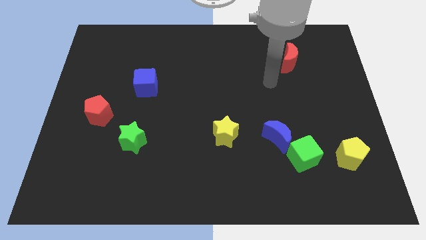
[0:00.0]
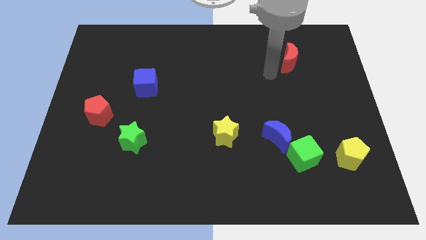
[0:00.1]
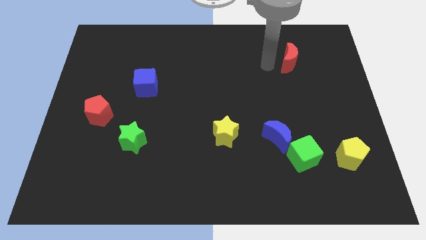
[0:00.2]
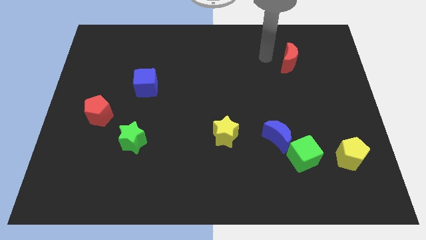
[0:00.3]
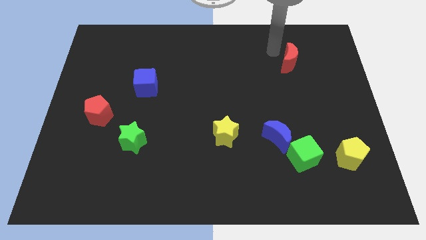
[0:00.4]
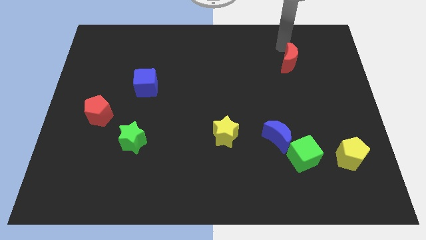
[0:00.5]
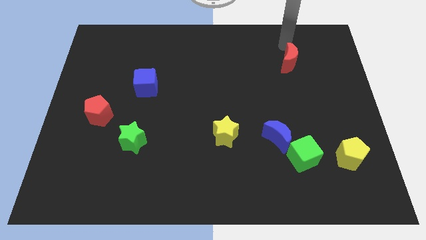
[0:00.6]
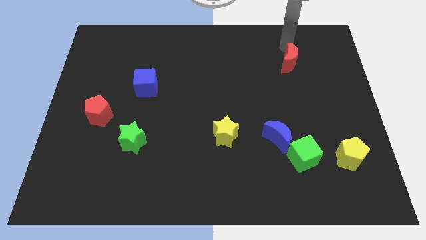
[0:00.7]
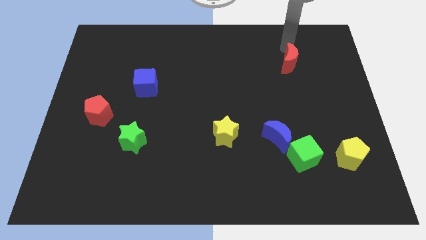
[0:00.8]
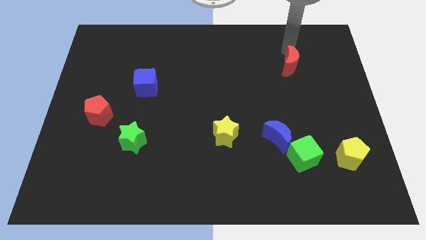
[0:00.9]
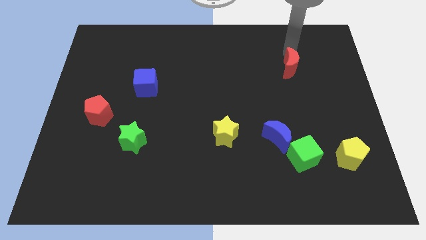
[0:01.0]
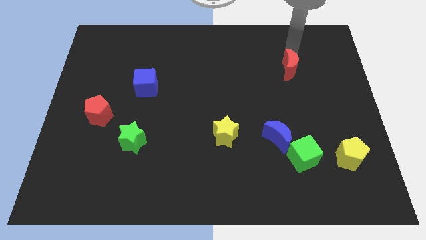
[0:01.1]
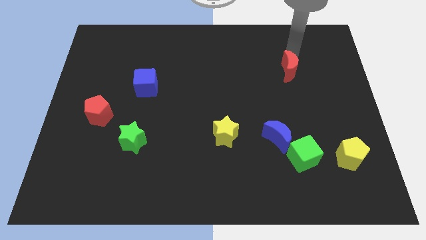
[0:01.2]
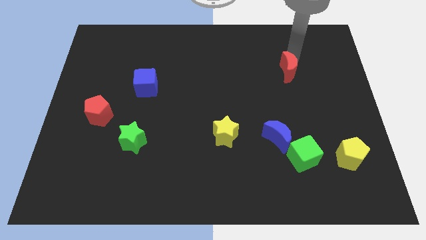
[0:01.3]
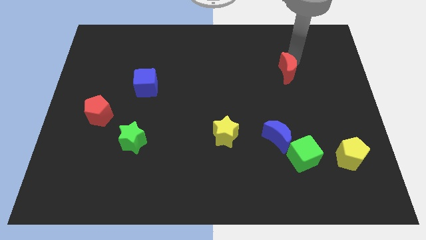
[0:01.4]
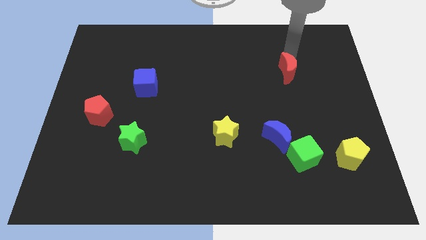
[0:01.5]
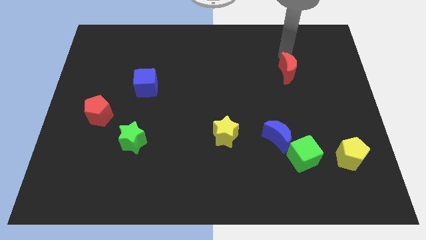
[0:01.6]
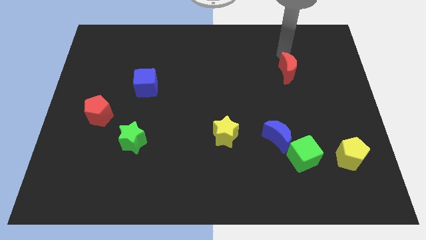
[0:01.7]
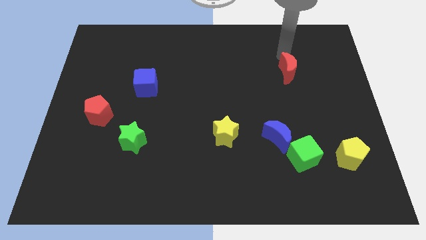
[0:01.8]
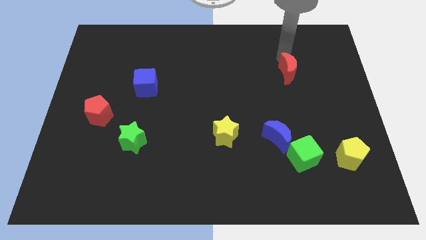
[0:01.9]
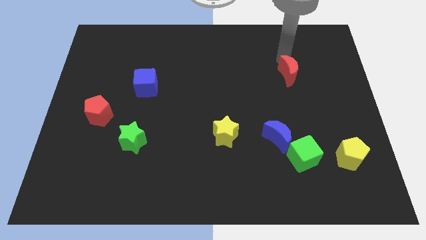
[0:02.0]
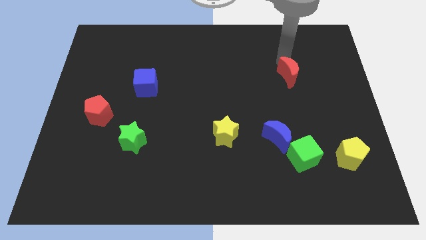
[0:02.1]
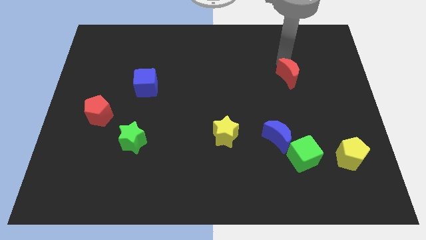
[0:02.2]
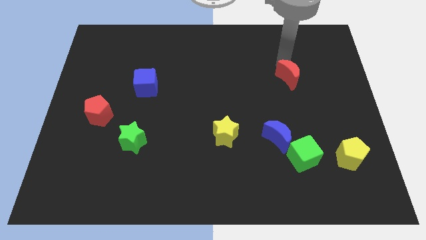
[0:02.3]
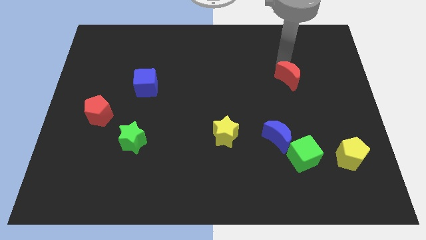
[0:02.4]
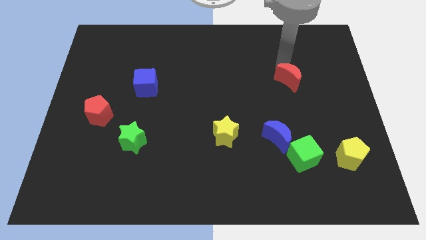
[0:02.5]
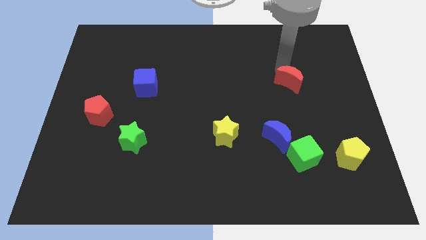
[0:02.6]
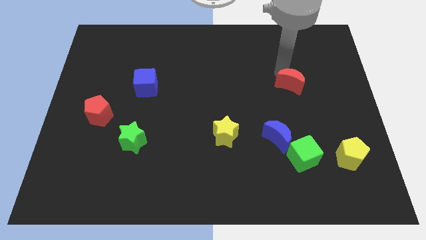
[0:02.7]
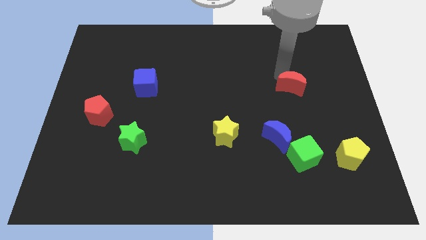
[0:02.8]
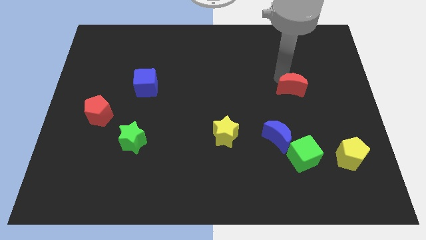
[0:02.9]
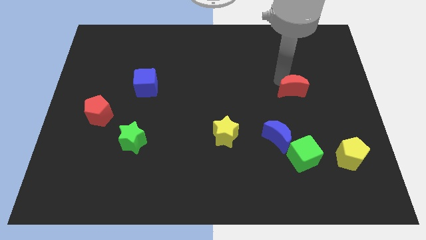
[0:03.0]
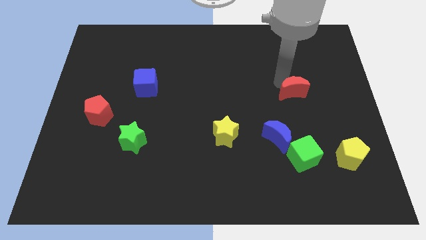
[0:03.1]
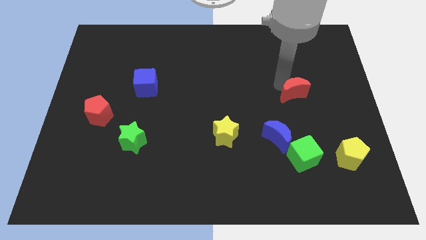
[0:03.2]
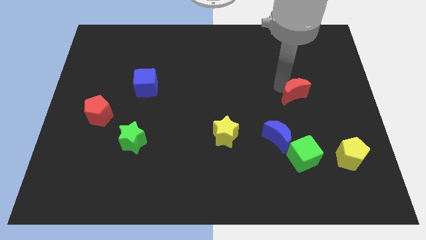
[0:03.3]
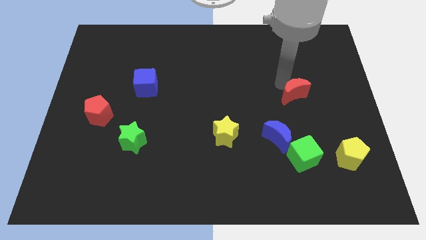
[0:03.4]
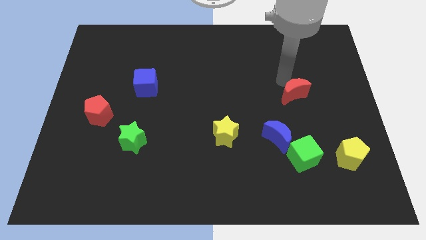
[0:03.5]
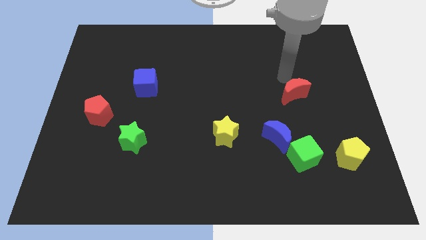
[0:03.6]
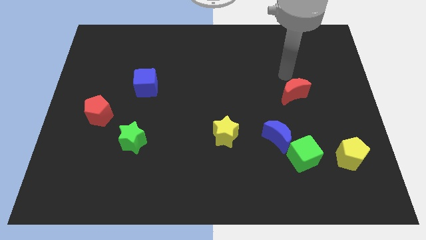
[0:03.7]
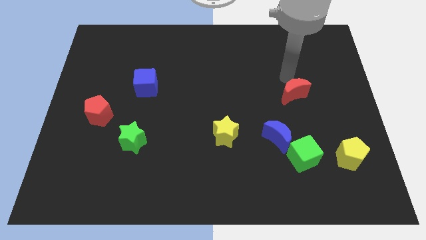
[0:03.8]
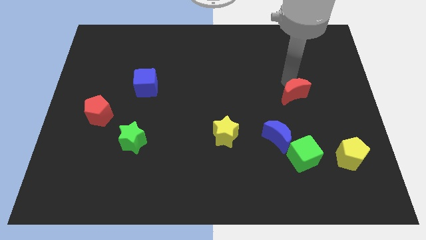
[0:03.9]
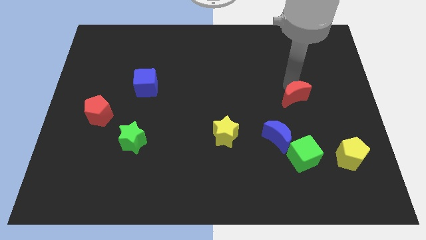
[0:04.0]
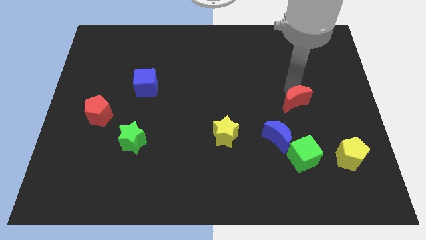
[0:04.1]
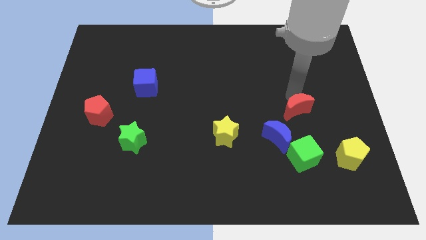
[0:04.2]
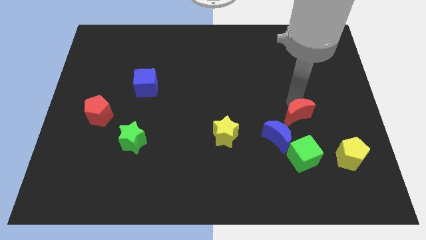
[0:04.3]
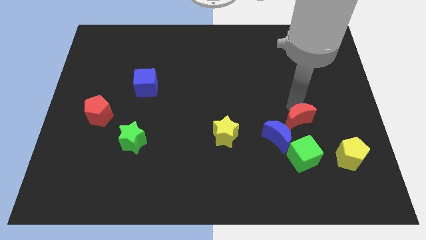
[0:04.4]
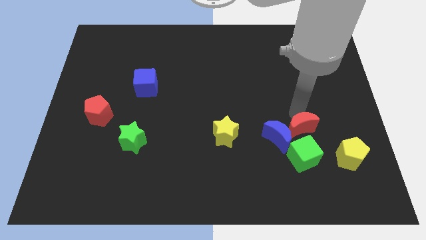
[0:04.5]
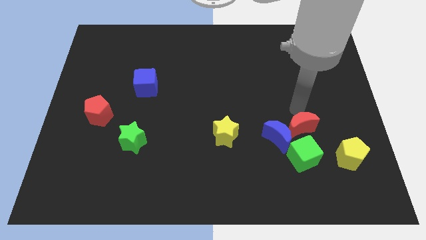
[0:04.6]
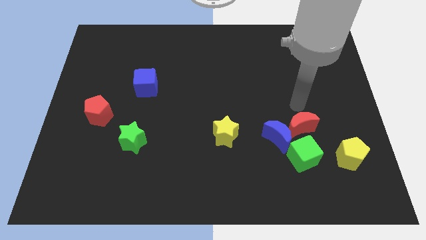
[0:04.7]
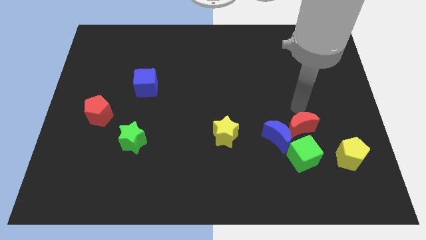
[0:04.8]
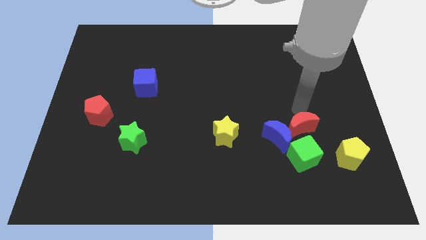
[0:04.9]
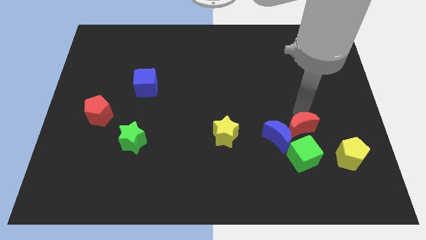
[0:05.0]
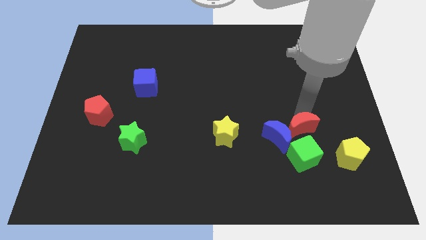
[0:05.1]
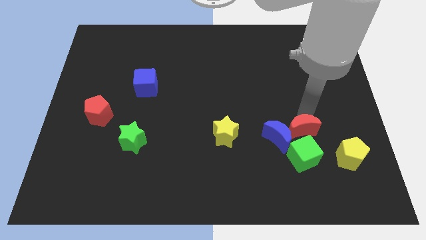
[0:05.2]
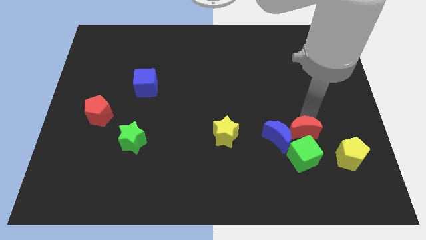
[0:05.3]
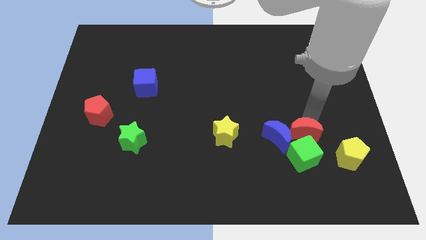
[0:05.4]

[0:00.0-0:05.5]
slide the red moon next to the green cube

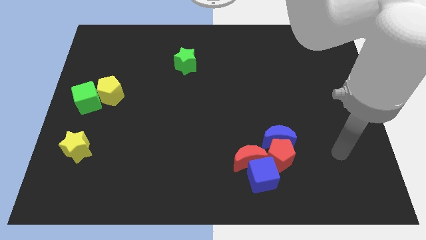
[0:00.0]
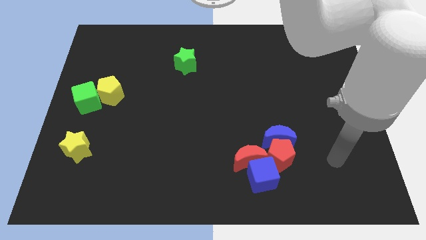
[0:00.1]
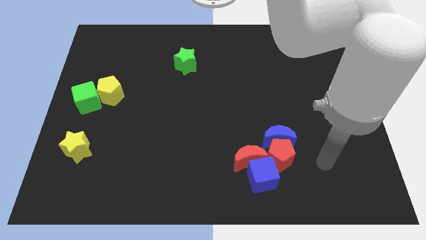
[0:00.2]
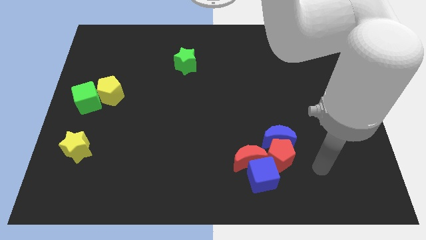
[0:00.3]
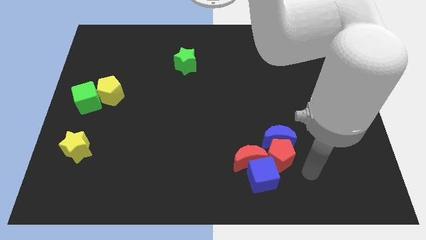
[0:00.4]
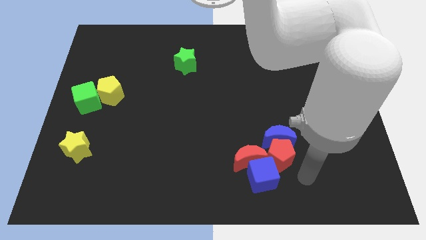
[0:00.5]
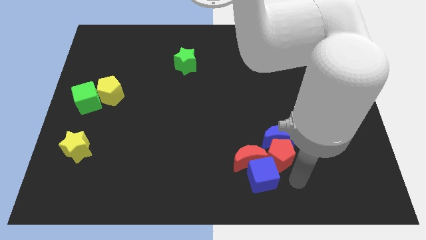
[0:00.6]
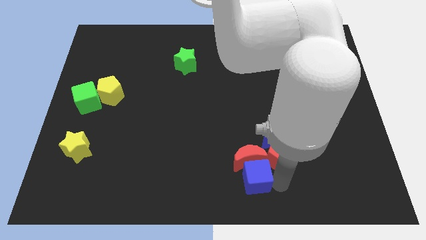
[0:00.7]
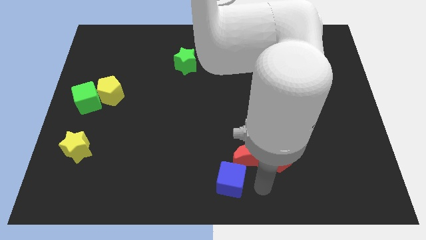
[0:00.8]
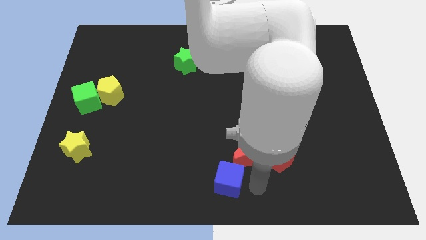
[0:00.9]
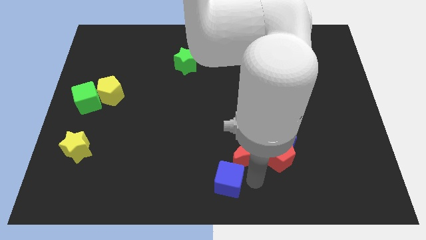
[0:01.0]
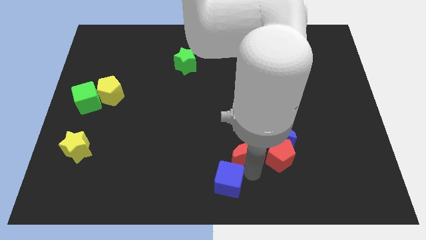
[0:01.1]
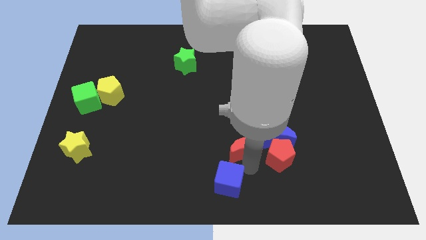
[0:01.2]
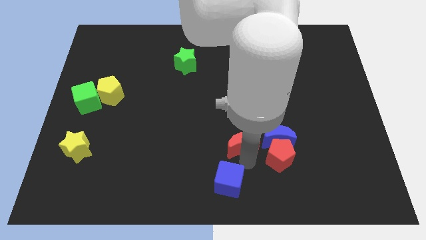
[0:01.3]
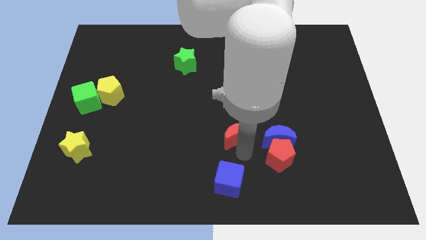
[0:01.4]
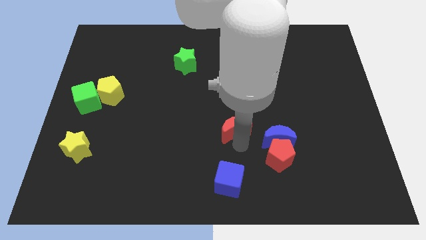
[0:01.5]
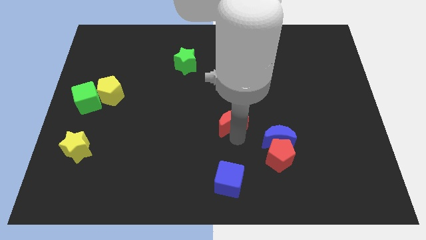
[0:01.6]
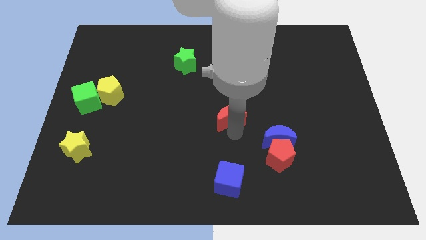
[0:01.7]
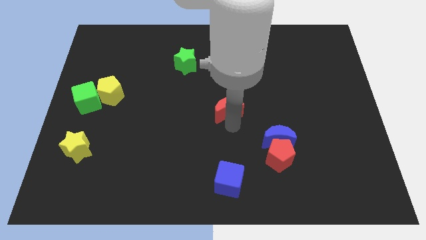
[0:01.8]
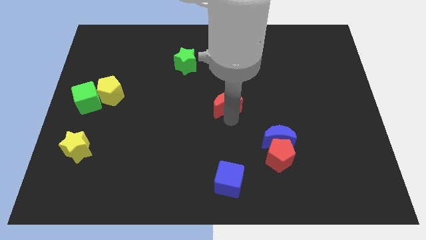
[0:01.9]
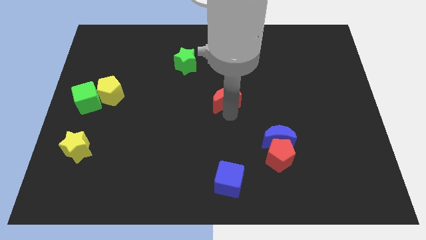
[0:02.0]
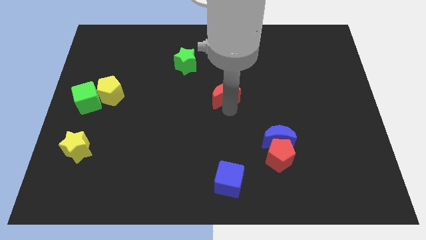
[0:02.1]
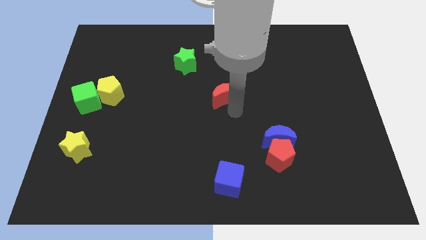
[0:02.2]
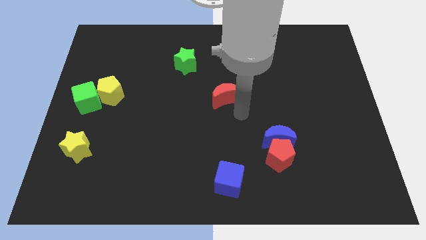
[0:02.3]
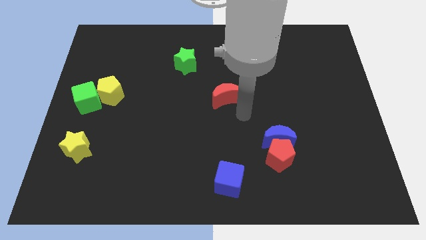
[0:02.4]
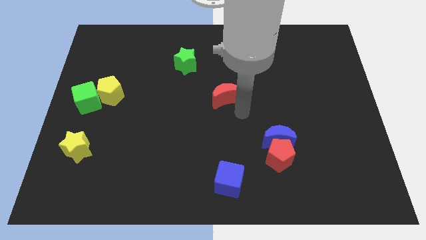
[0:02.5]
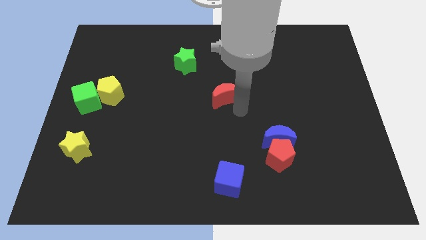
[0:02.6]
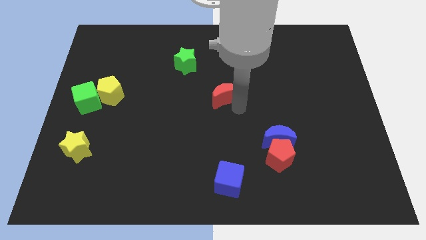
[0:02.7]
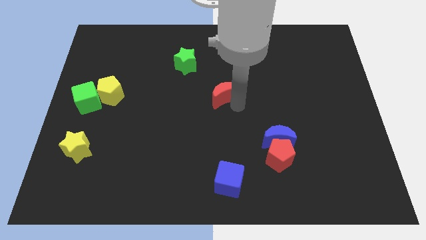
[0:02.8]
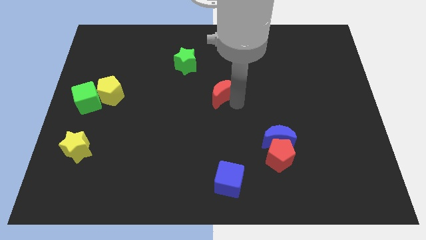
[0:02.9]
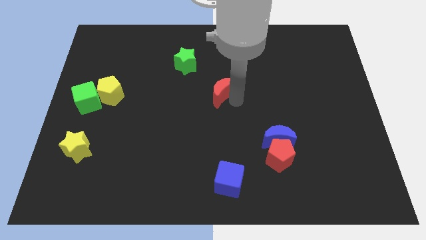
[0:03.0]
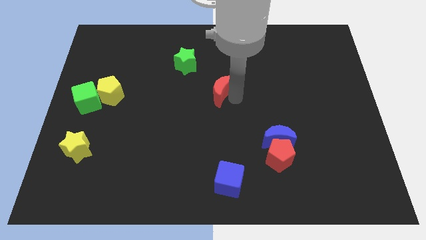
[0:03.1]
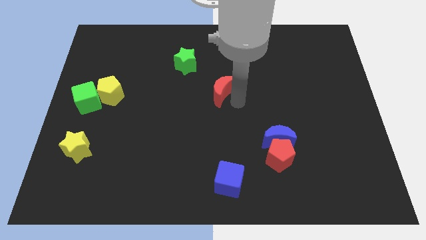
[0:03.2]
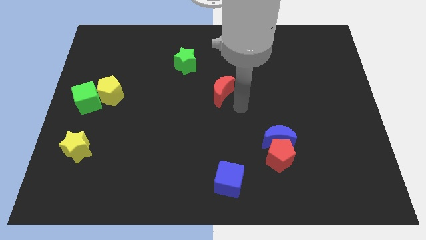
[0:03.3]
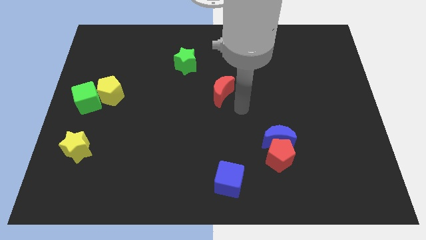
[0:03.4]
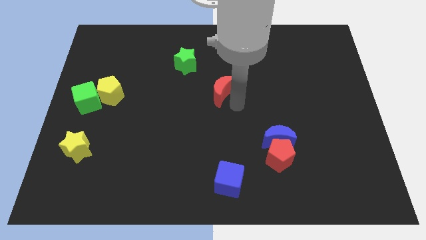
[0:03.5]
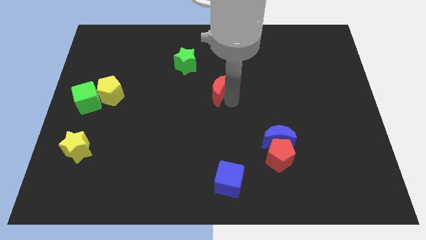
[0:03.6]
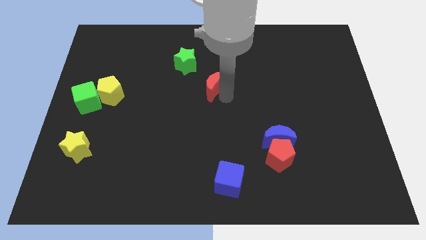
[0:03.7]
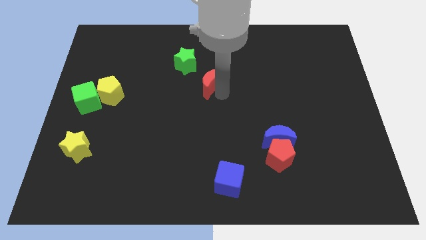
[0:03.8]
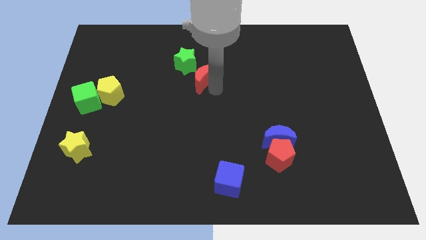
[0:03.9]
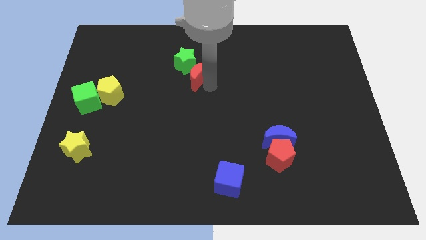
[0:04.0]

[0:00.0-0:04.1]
put the red moon towards the green star
